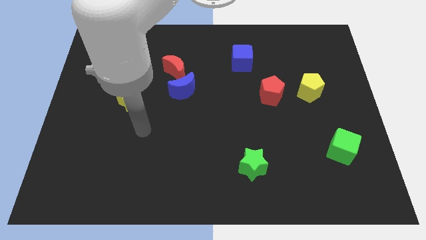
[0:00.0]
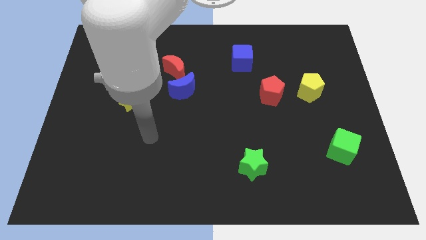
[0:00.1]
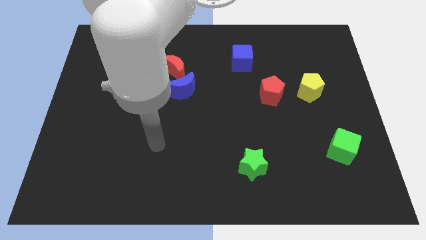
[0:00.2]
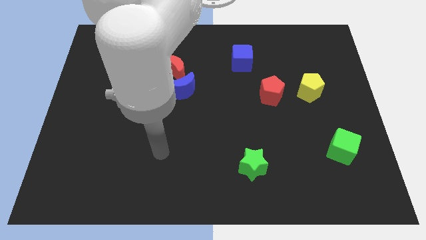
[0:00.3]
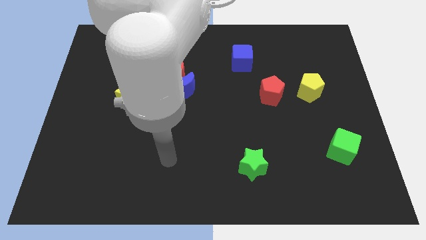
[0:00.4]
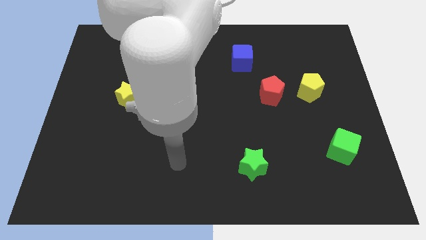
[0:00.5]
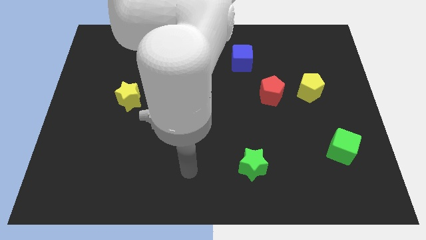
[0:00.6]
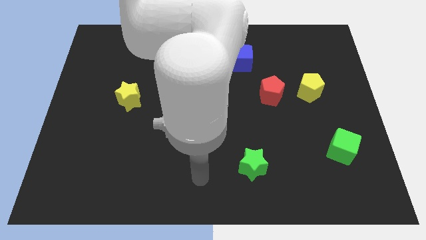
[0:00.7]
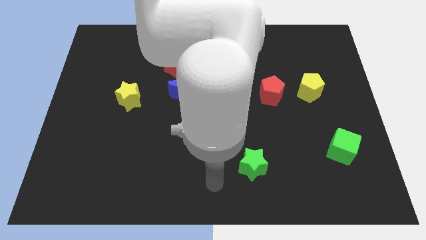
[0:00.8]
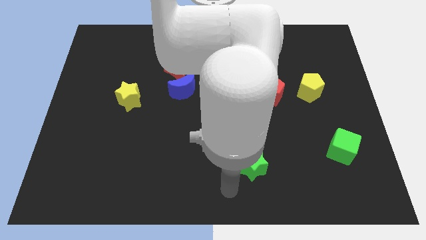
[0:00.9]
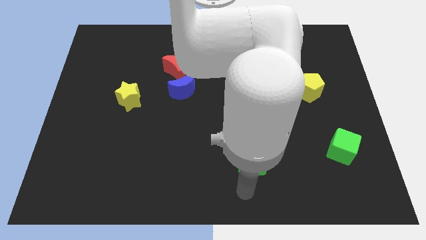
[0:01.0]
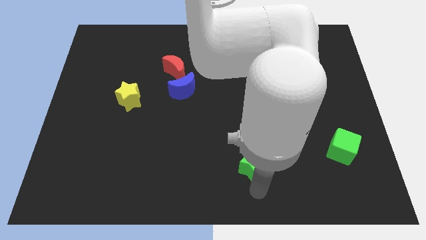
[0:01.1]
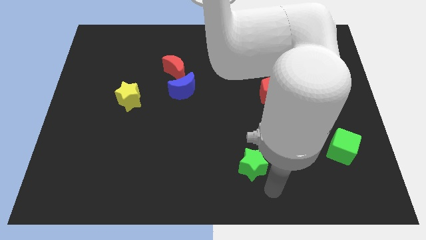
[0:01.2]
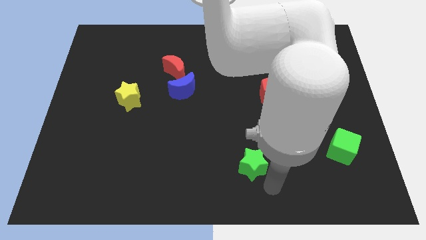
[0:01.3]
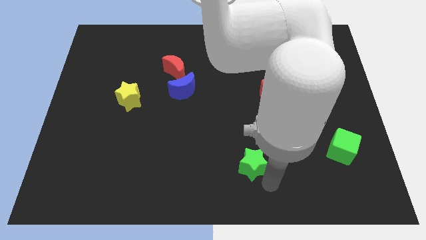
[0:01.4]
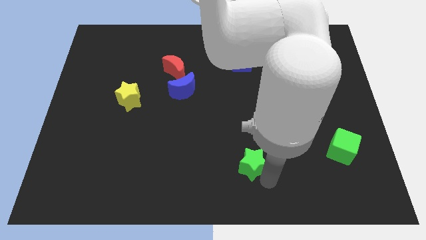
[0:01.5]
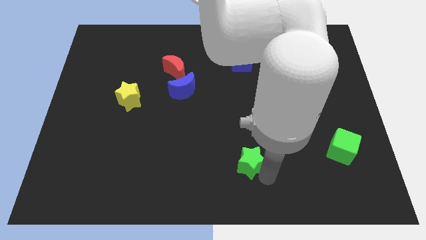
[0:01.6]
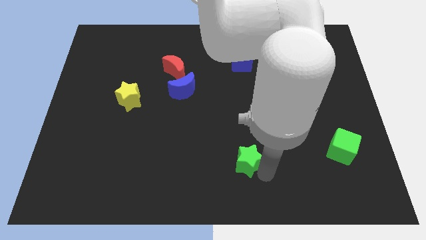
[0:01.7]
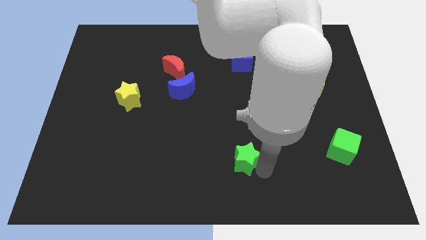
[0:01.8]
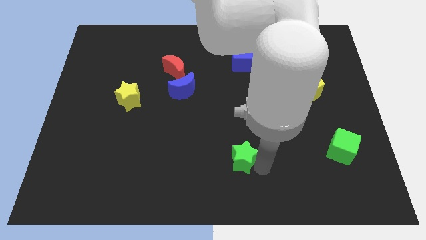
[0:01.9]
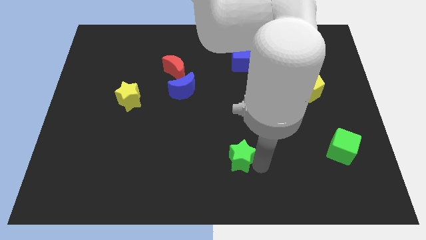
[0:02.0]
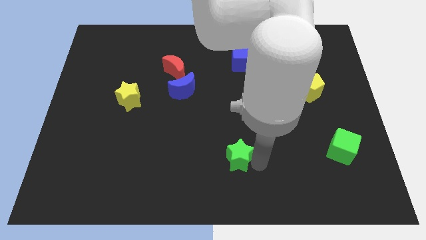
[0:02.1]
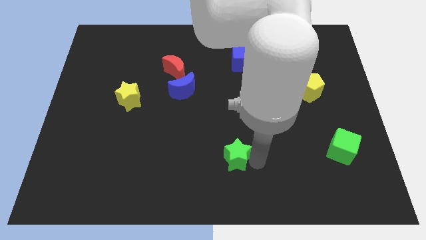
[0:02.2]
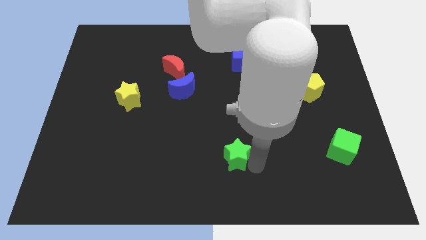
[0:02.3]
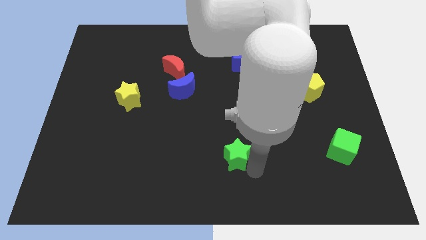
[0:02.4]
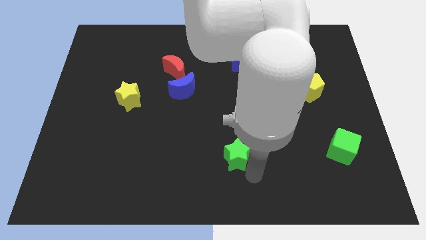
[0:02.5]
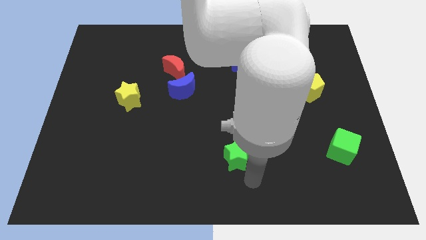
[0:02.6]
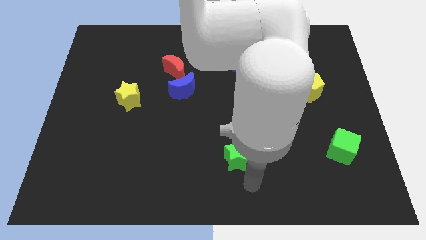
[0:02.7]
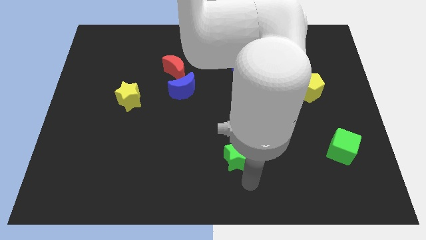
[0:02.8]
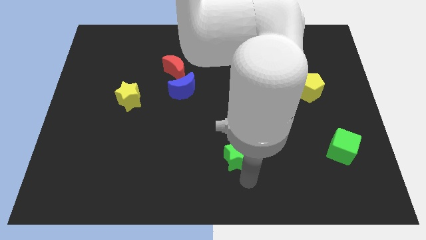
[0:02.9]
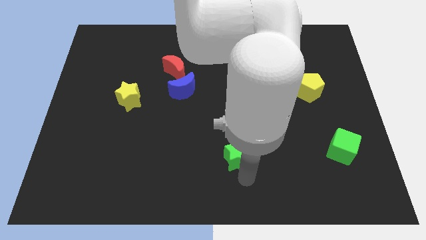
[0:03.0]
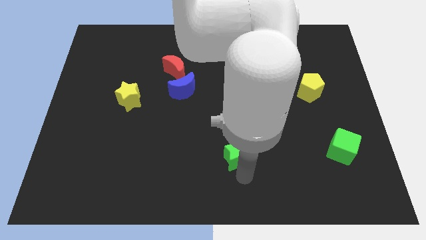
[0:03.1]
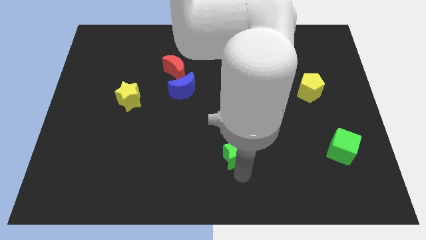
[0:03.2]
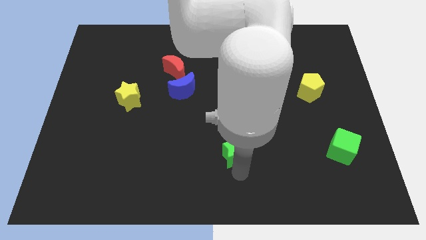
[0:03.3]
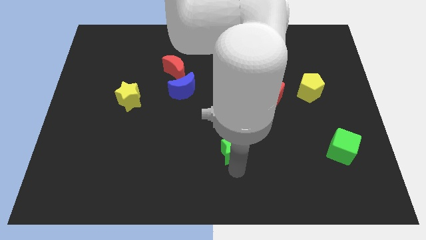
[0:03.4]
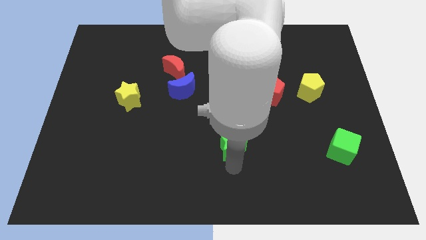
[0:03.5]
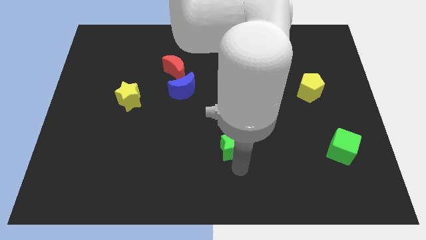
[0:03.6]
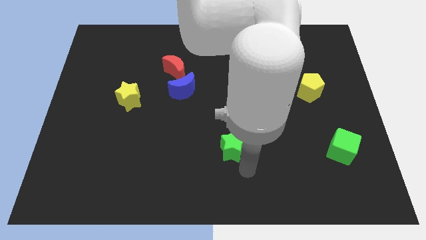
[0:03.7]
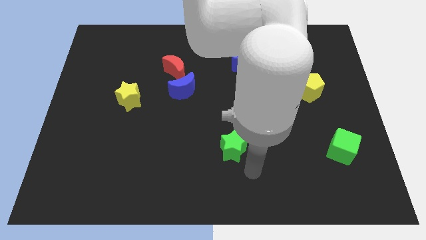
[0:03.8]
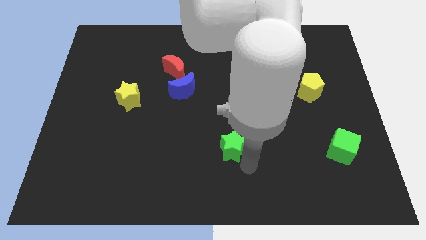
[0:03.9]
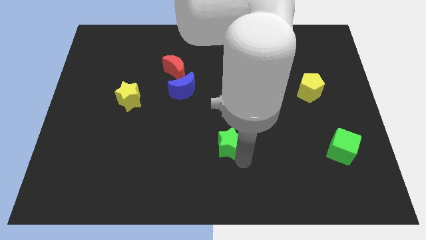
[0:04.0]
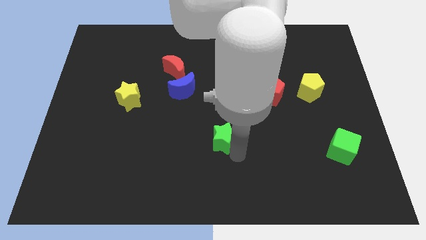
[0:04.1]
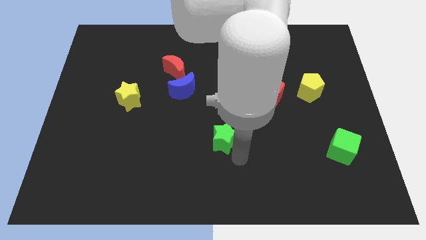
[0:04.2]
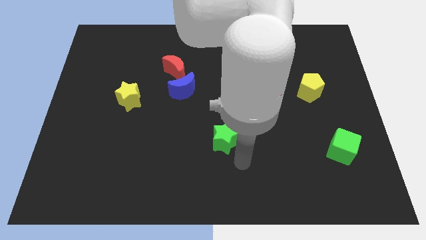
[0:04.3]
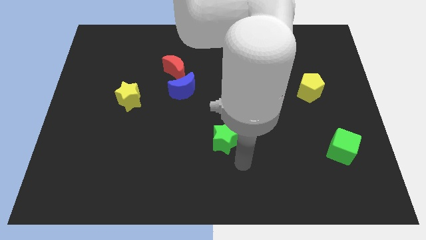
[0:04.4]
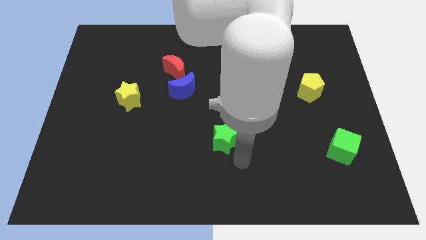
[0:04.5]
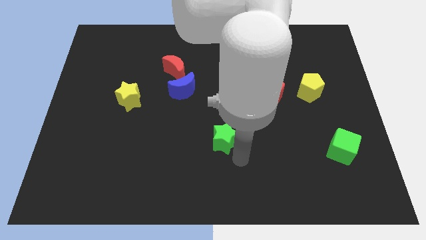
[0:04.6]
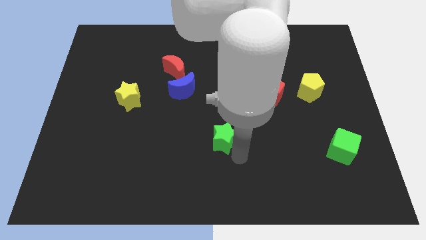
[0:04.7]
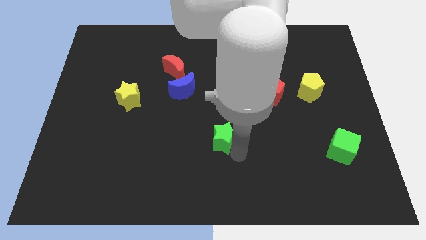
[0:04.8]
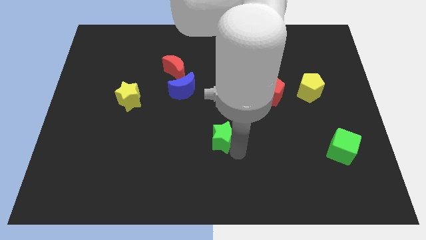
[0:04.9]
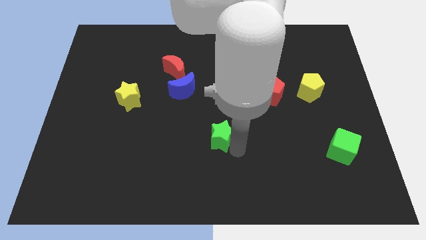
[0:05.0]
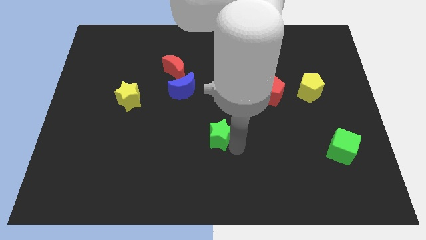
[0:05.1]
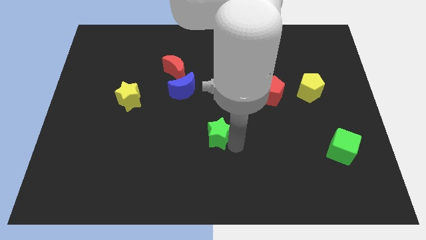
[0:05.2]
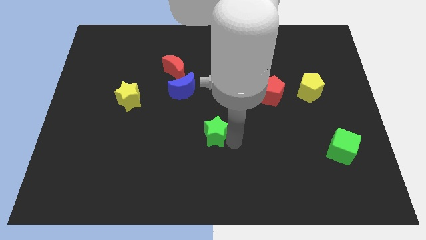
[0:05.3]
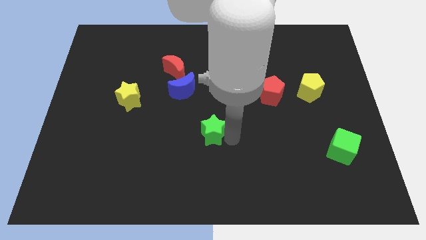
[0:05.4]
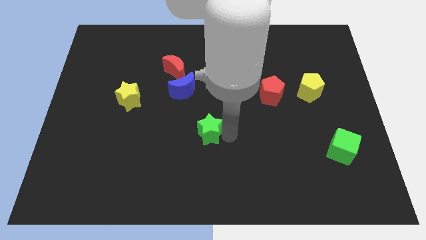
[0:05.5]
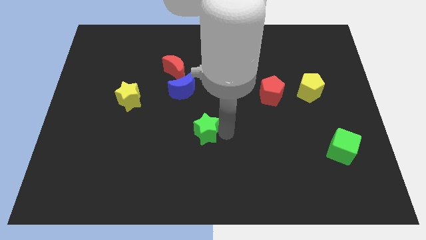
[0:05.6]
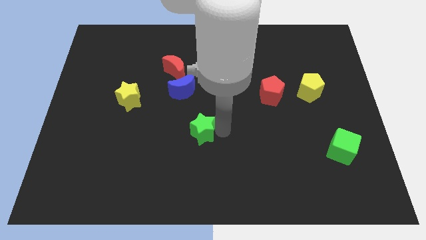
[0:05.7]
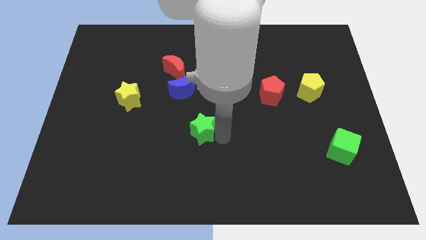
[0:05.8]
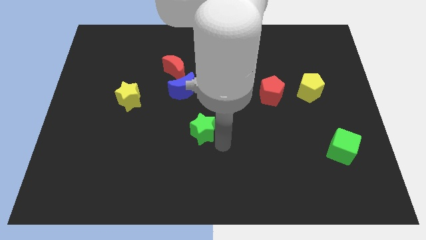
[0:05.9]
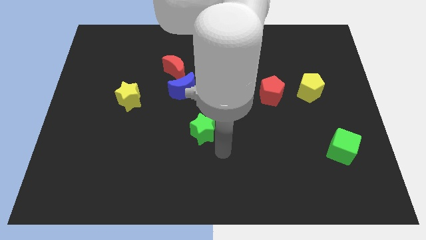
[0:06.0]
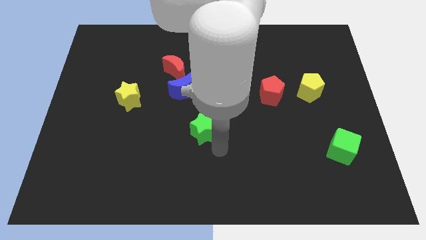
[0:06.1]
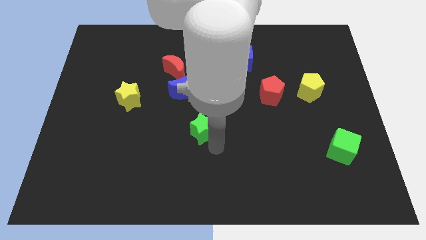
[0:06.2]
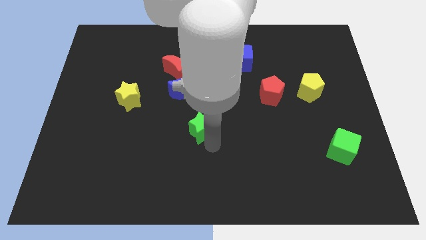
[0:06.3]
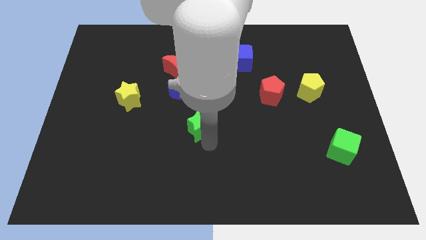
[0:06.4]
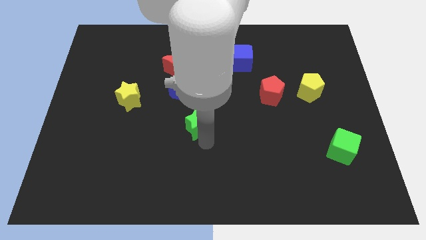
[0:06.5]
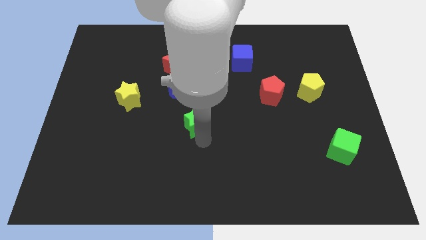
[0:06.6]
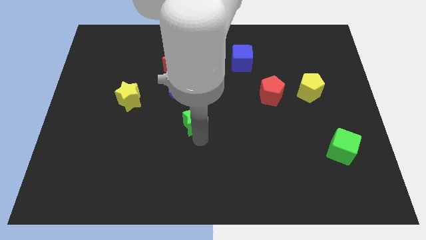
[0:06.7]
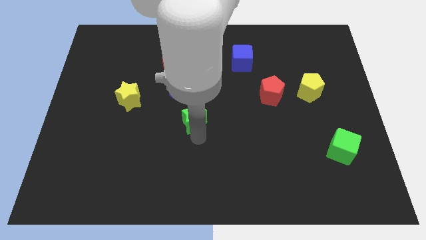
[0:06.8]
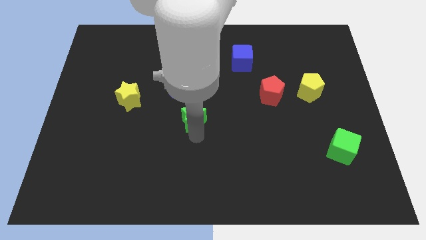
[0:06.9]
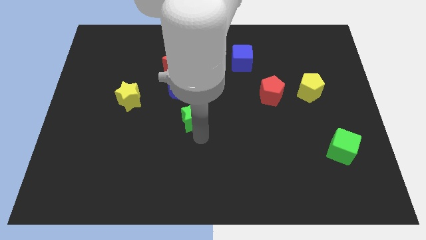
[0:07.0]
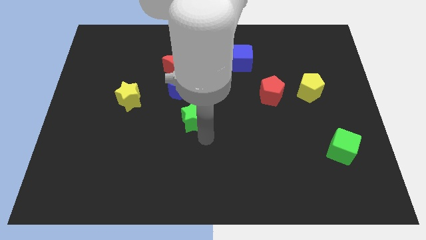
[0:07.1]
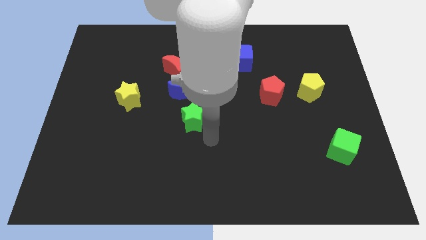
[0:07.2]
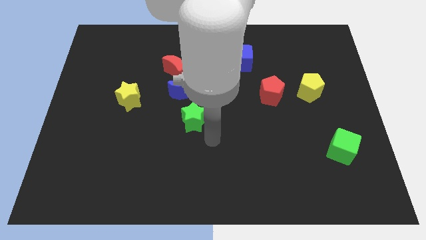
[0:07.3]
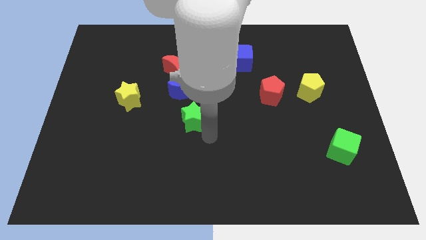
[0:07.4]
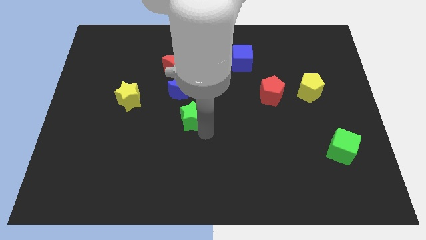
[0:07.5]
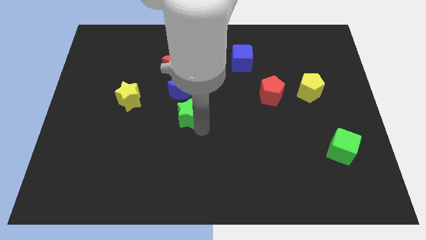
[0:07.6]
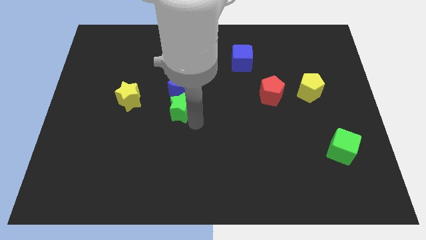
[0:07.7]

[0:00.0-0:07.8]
push the green star diagonally up and left

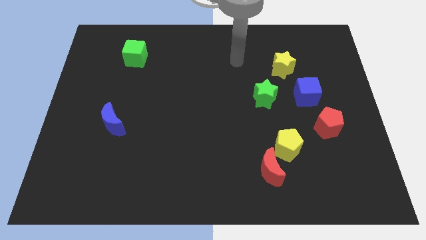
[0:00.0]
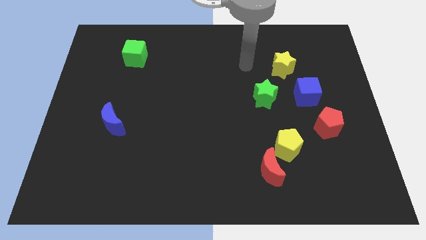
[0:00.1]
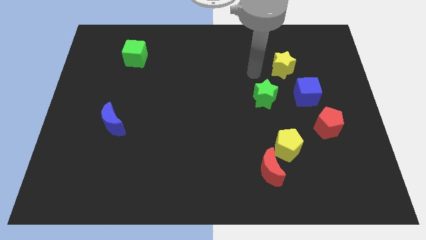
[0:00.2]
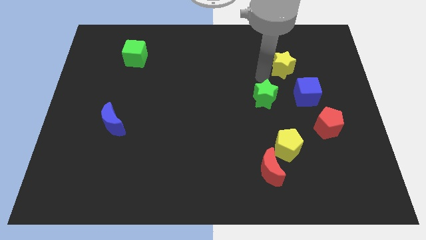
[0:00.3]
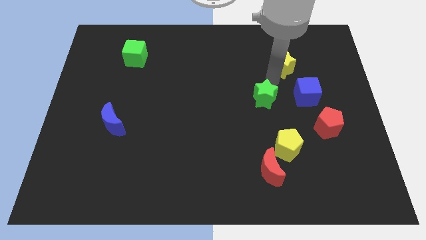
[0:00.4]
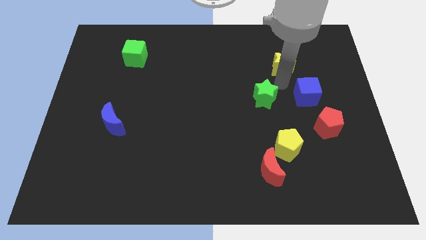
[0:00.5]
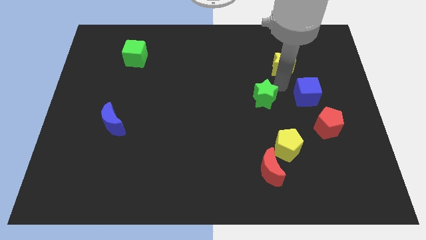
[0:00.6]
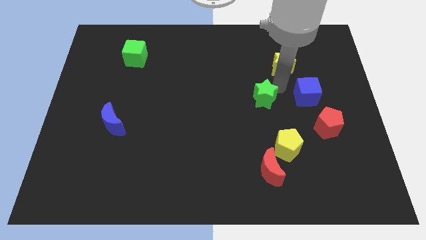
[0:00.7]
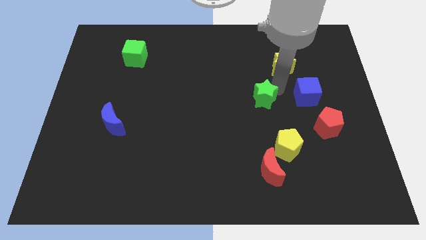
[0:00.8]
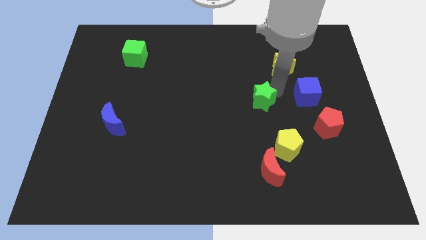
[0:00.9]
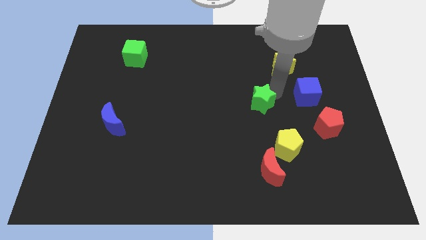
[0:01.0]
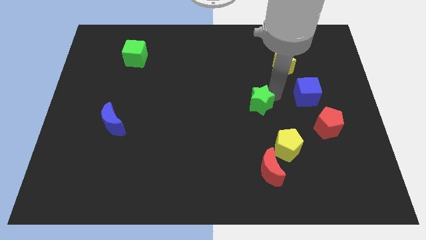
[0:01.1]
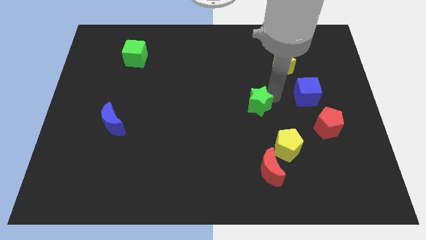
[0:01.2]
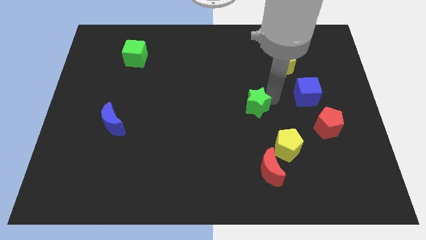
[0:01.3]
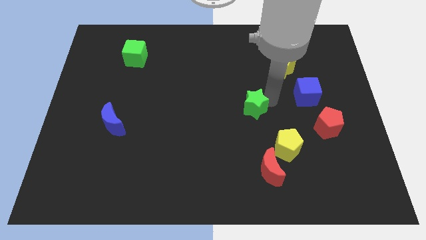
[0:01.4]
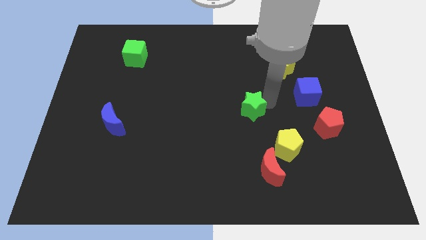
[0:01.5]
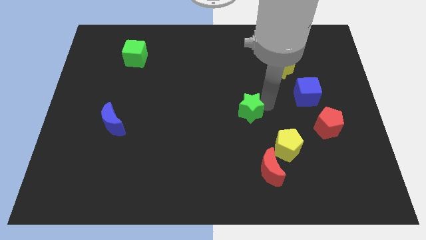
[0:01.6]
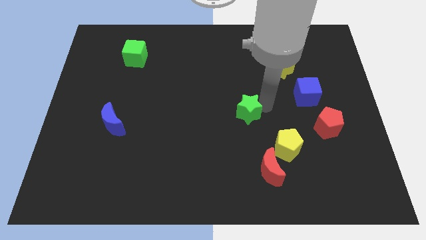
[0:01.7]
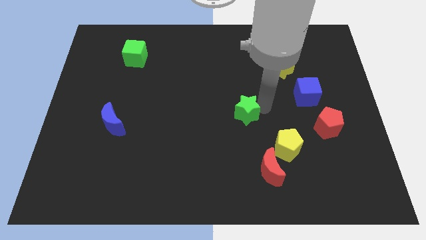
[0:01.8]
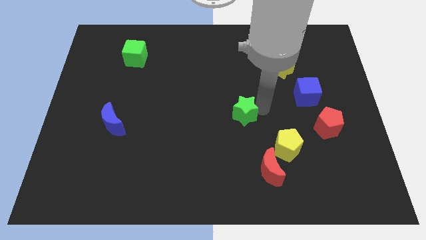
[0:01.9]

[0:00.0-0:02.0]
slightly move the green star down and left
